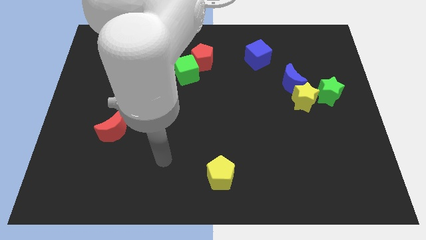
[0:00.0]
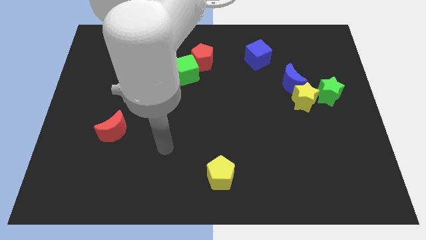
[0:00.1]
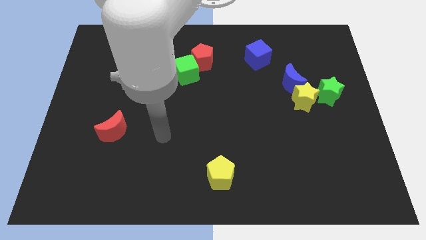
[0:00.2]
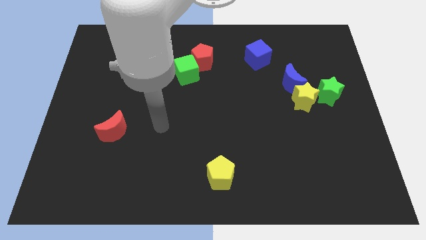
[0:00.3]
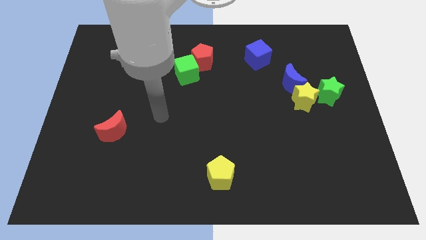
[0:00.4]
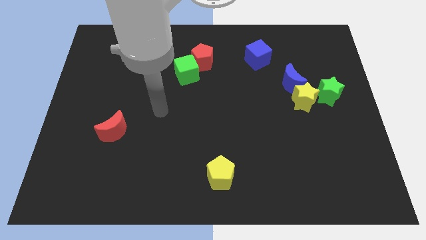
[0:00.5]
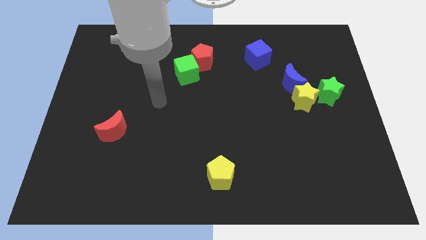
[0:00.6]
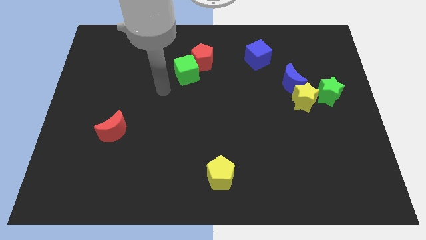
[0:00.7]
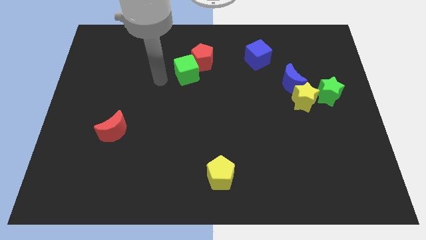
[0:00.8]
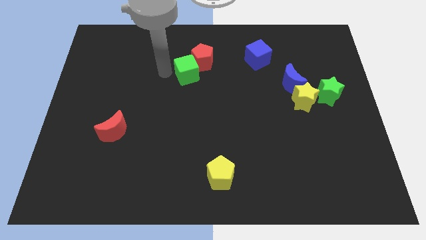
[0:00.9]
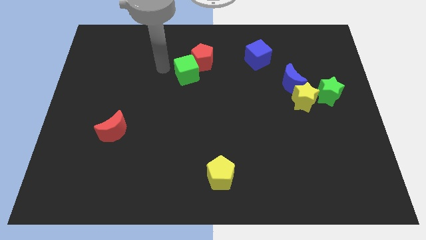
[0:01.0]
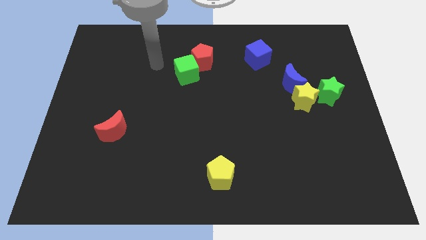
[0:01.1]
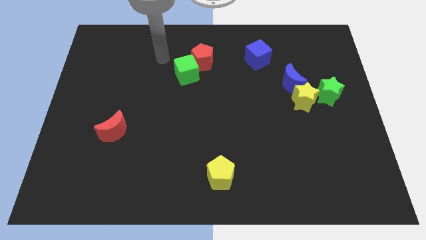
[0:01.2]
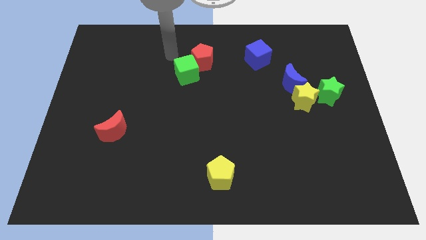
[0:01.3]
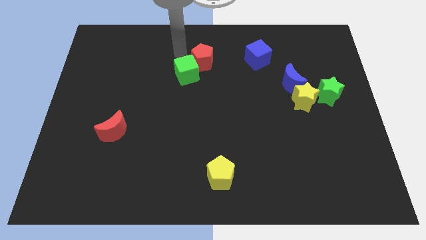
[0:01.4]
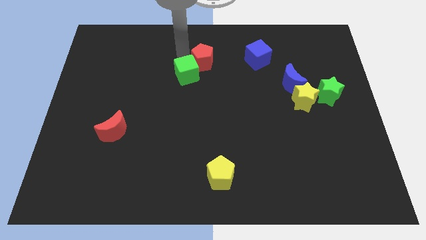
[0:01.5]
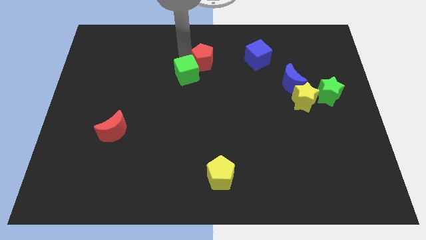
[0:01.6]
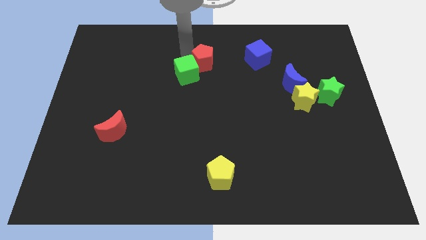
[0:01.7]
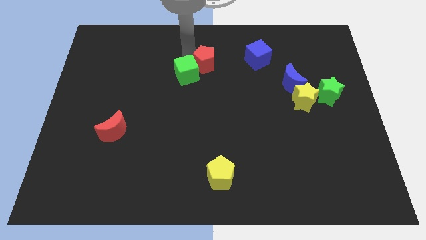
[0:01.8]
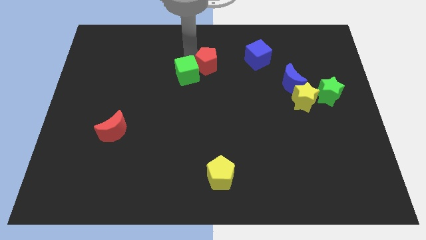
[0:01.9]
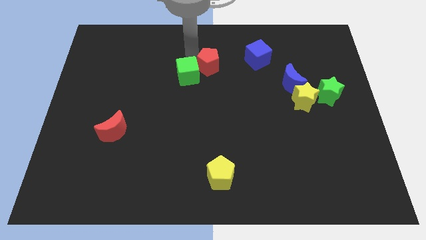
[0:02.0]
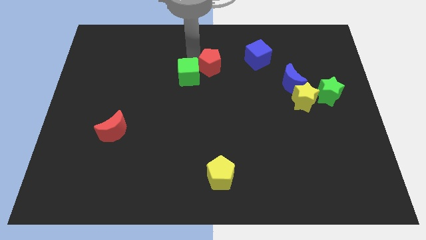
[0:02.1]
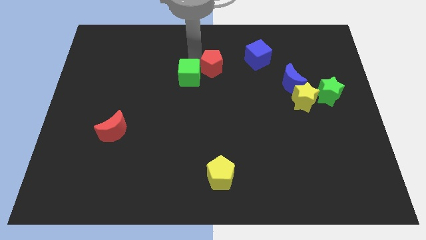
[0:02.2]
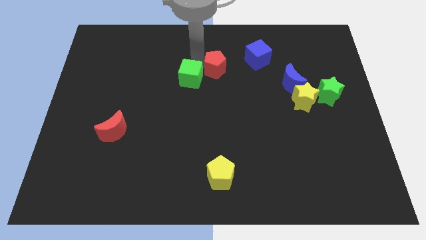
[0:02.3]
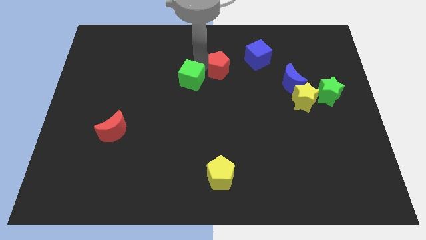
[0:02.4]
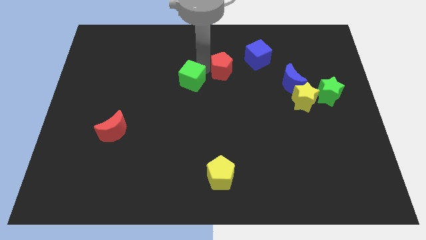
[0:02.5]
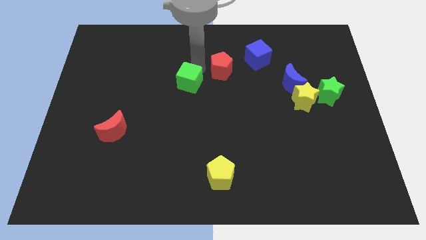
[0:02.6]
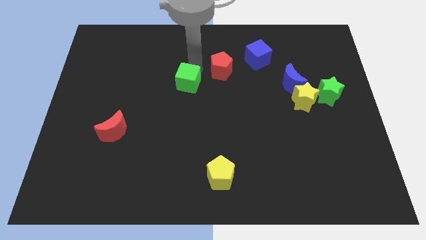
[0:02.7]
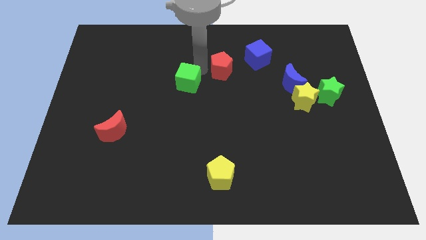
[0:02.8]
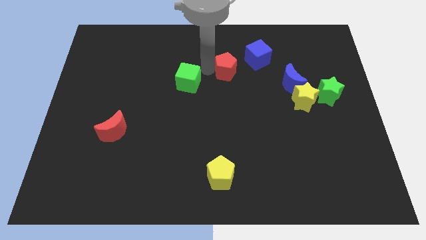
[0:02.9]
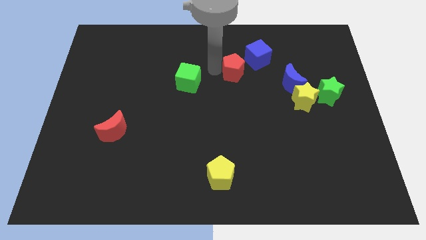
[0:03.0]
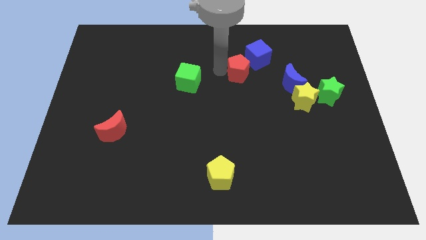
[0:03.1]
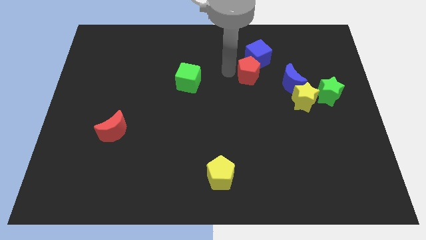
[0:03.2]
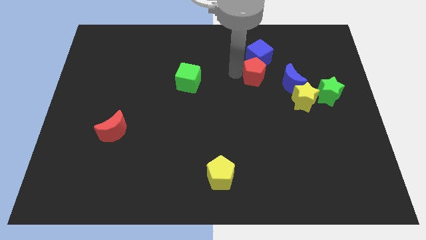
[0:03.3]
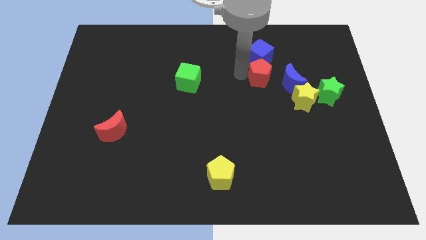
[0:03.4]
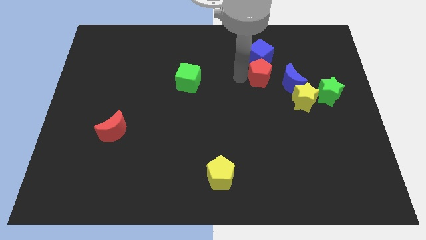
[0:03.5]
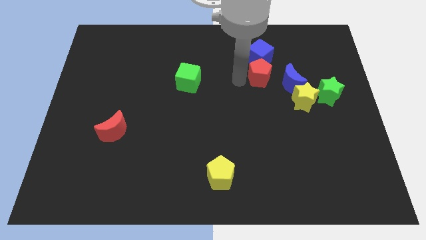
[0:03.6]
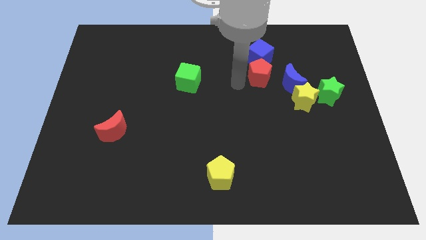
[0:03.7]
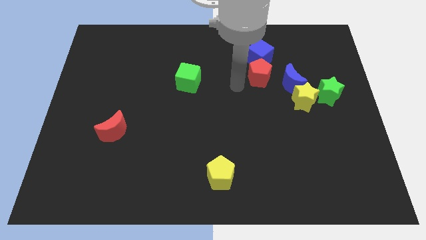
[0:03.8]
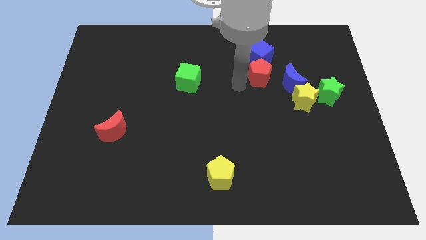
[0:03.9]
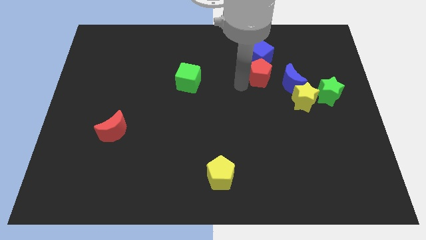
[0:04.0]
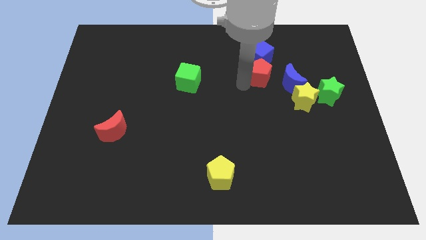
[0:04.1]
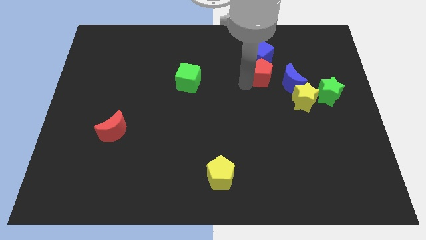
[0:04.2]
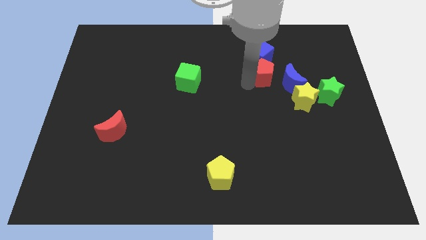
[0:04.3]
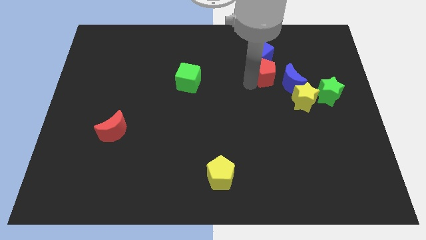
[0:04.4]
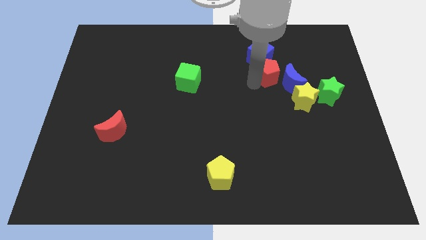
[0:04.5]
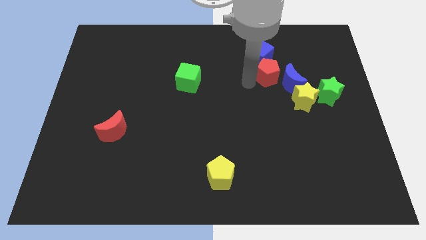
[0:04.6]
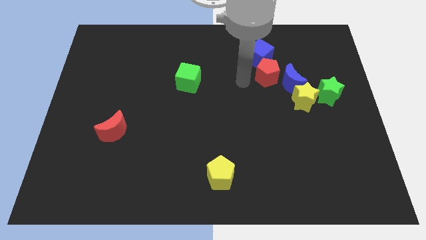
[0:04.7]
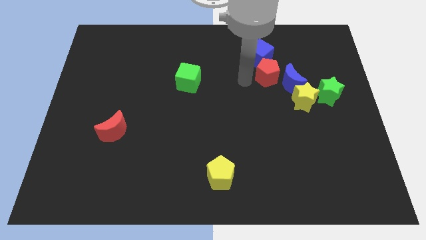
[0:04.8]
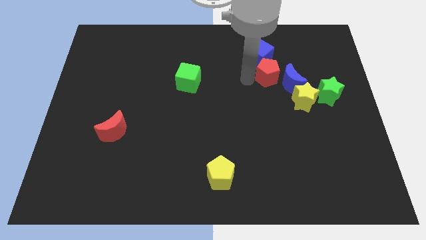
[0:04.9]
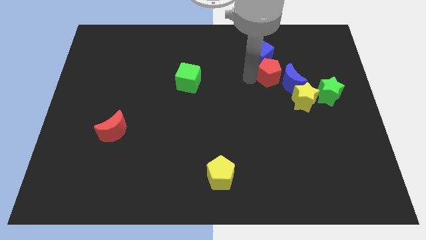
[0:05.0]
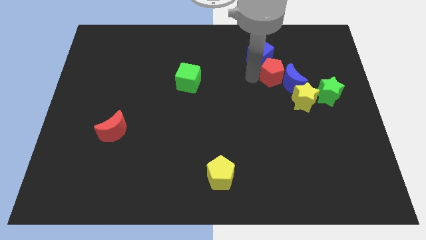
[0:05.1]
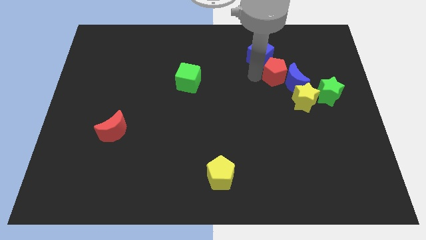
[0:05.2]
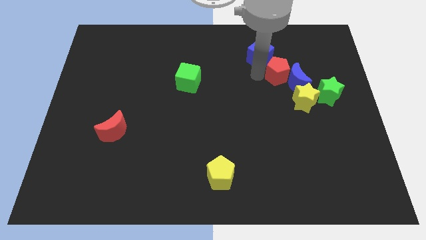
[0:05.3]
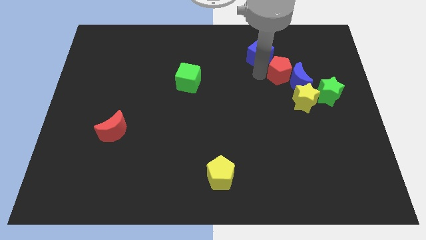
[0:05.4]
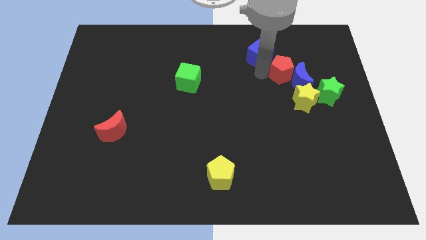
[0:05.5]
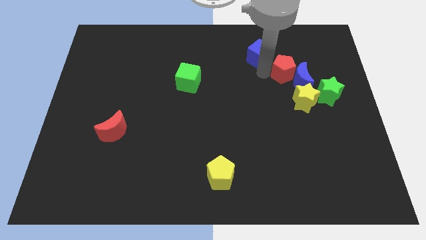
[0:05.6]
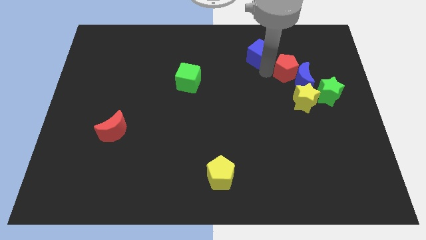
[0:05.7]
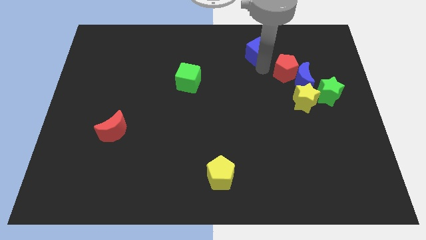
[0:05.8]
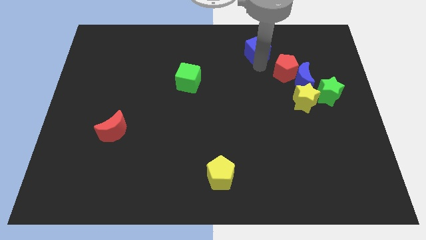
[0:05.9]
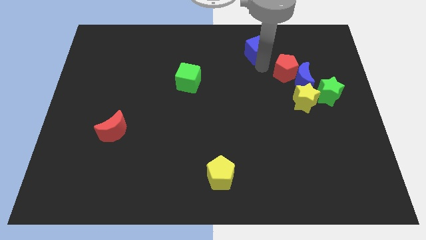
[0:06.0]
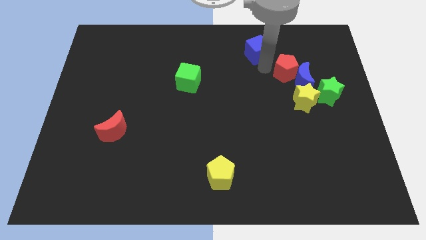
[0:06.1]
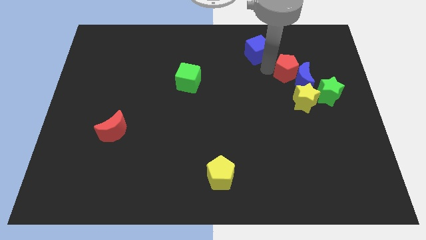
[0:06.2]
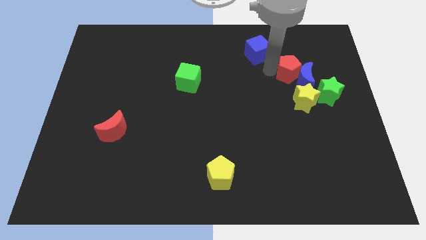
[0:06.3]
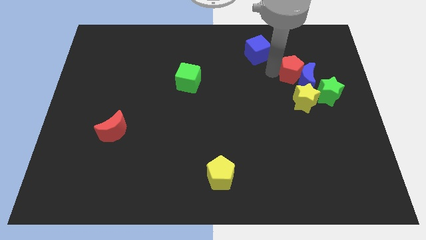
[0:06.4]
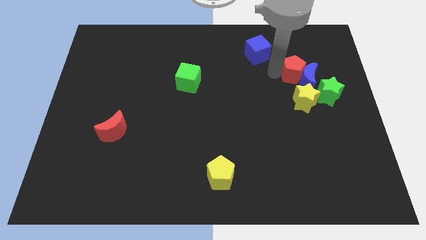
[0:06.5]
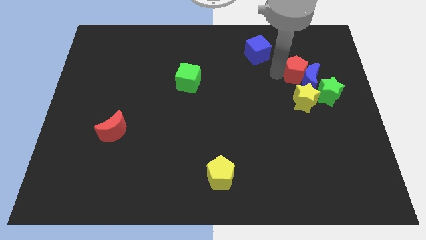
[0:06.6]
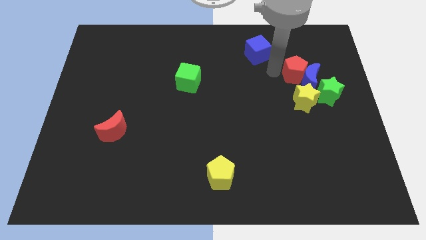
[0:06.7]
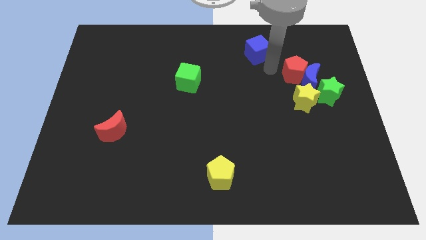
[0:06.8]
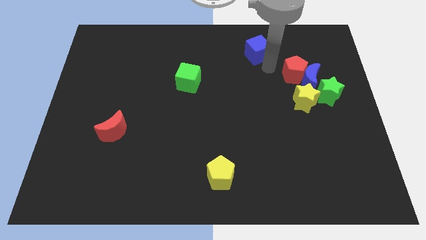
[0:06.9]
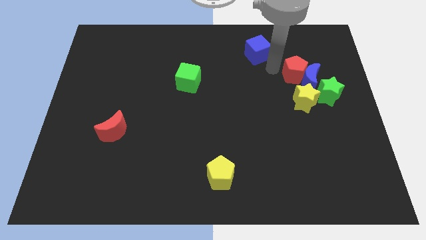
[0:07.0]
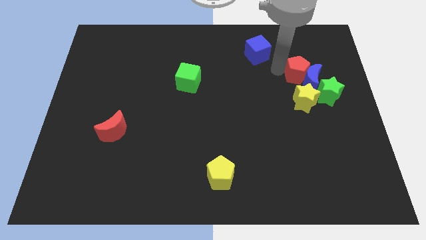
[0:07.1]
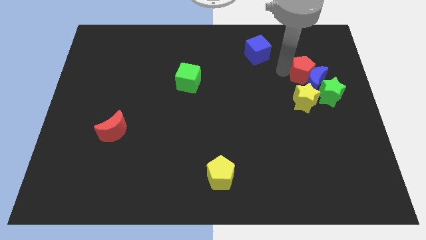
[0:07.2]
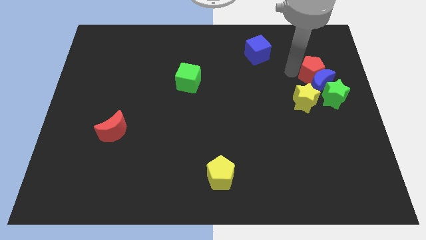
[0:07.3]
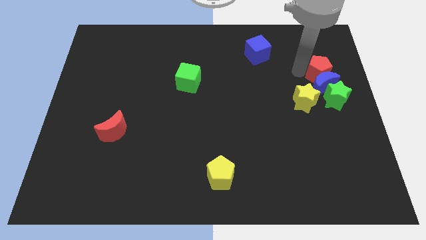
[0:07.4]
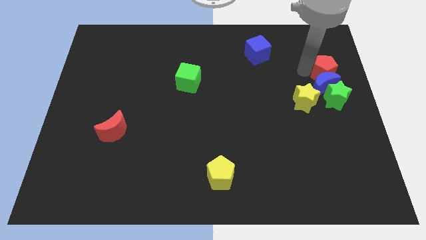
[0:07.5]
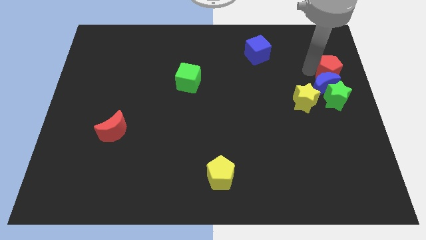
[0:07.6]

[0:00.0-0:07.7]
put the red pentagon to the center right
